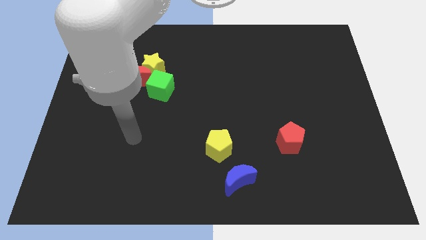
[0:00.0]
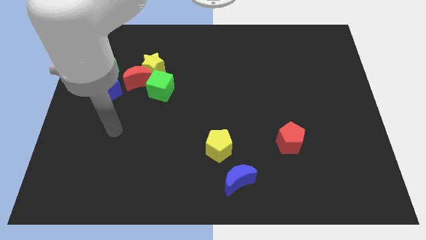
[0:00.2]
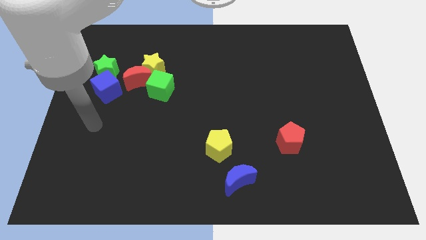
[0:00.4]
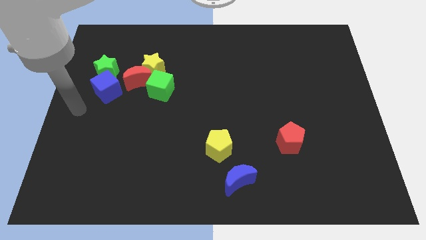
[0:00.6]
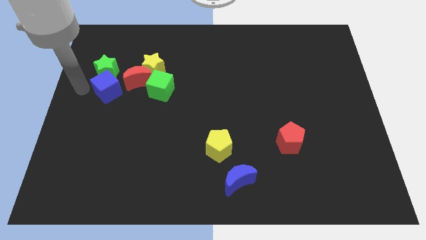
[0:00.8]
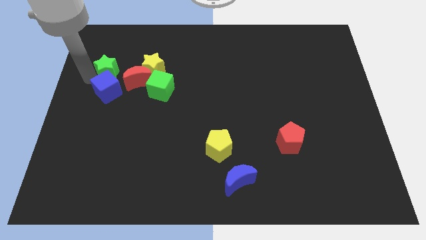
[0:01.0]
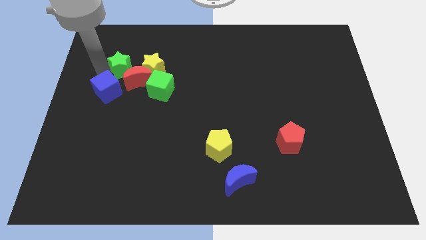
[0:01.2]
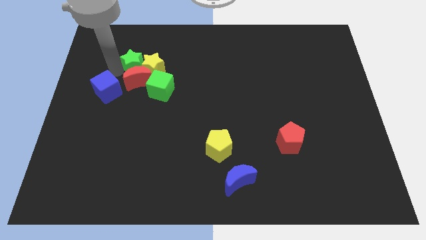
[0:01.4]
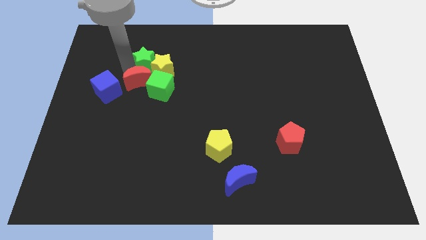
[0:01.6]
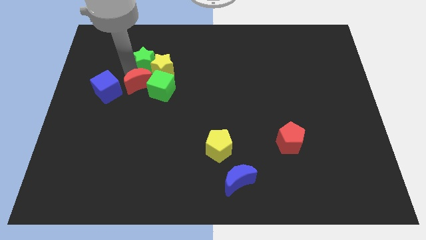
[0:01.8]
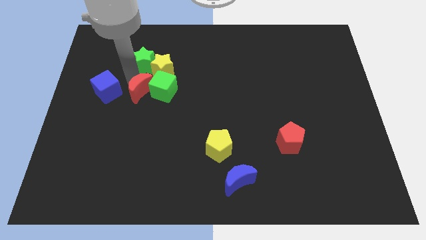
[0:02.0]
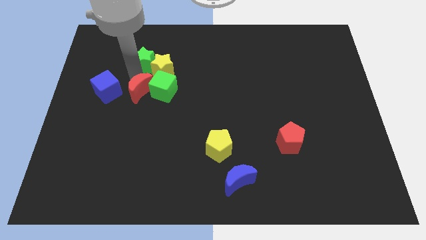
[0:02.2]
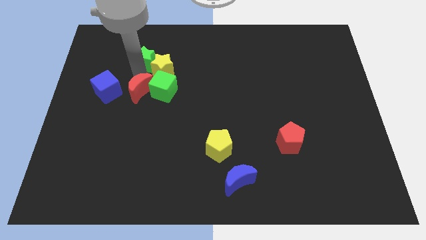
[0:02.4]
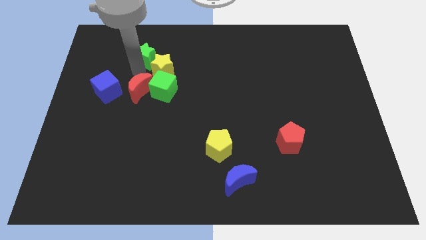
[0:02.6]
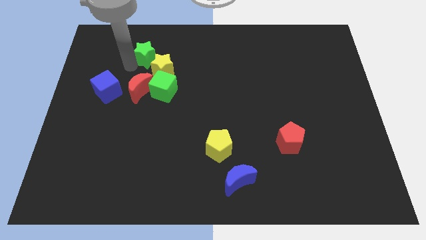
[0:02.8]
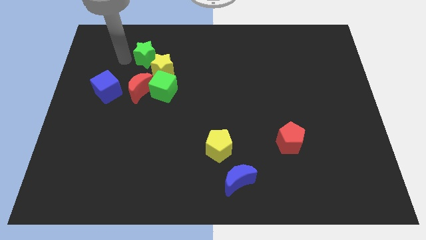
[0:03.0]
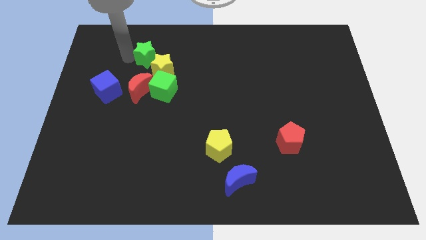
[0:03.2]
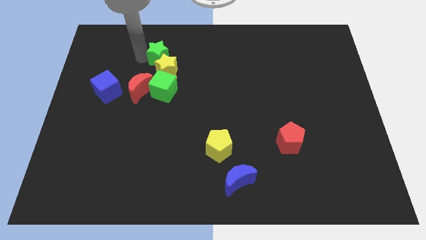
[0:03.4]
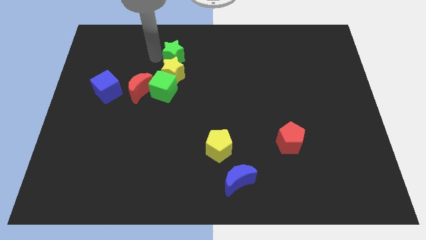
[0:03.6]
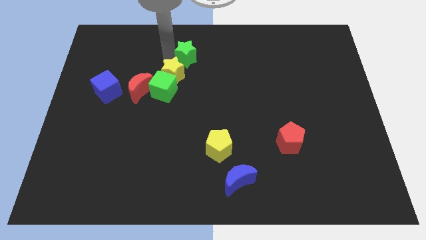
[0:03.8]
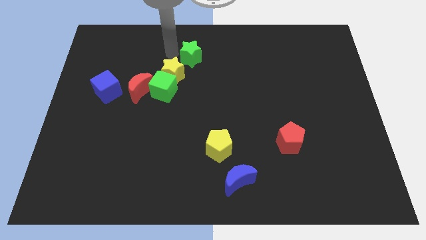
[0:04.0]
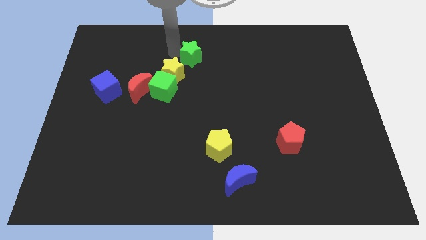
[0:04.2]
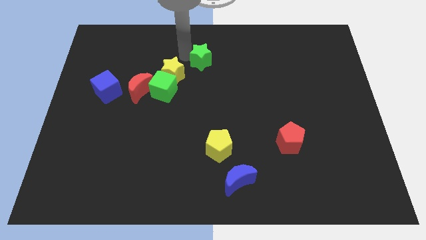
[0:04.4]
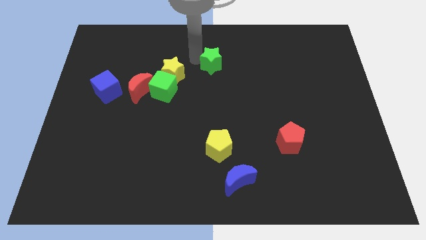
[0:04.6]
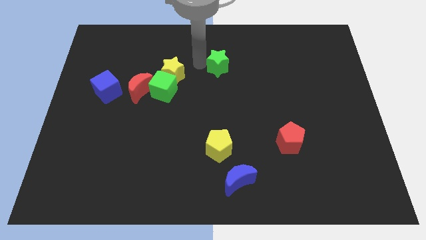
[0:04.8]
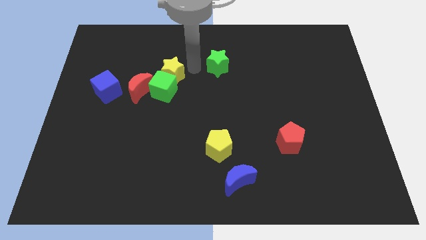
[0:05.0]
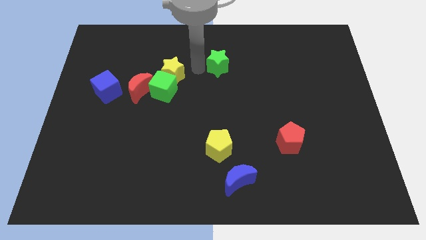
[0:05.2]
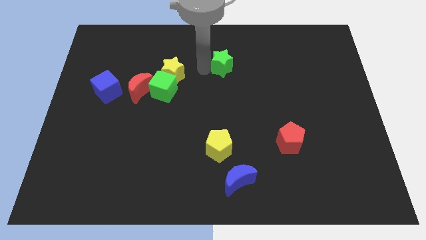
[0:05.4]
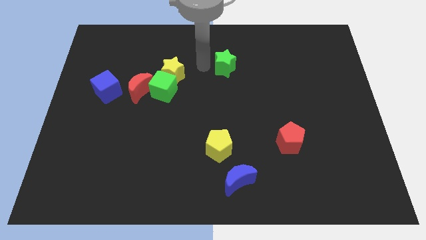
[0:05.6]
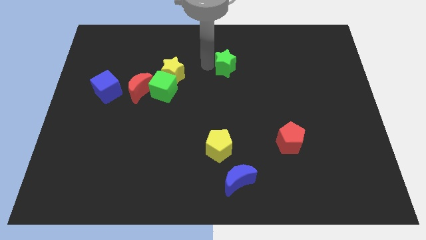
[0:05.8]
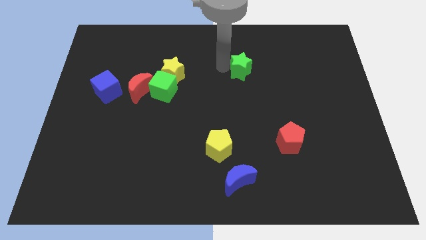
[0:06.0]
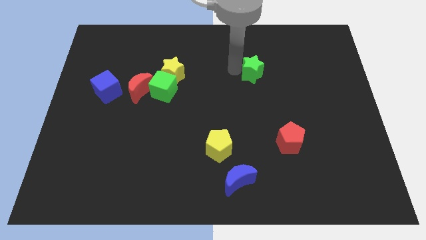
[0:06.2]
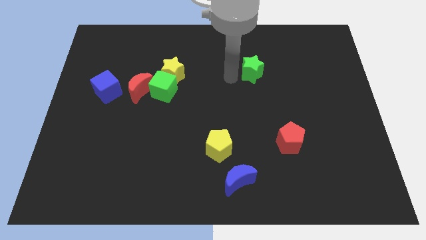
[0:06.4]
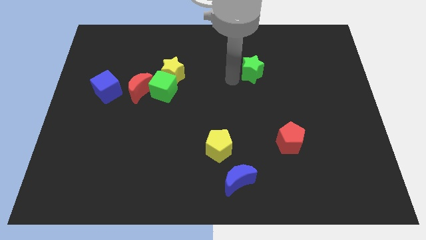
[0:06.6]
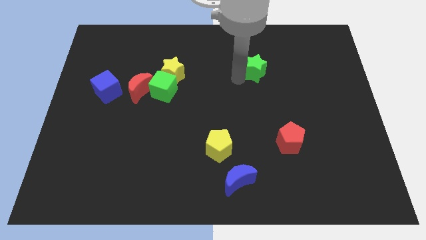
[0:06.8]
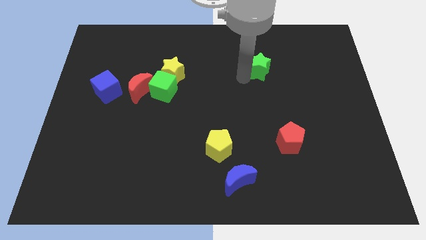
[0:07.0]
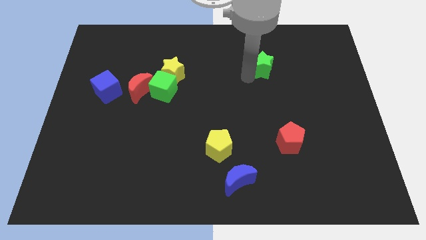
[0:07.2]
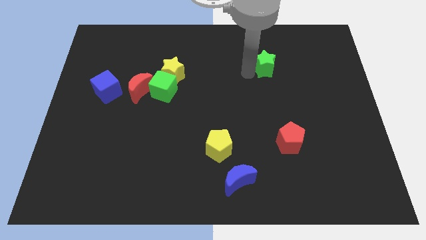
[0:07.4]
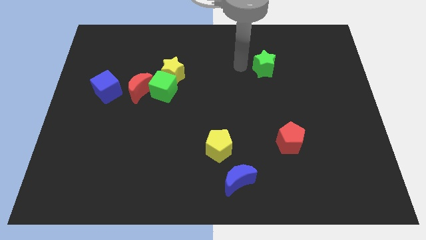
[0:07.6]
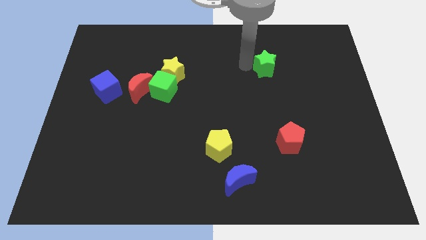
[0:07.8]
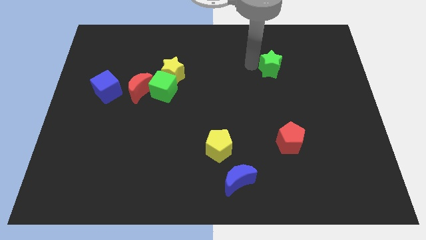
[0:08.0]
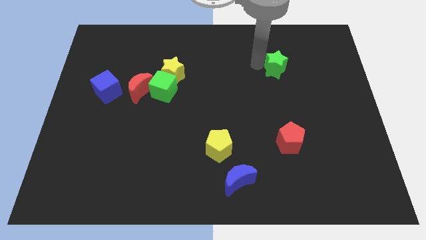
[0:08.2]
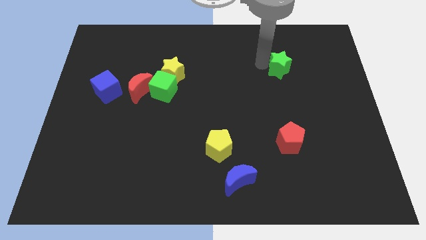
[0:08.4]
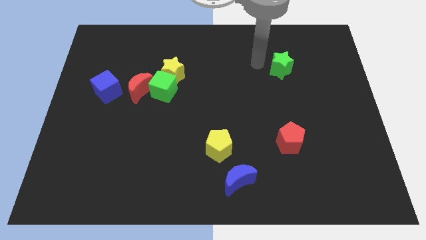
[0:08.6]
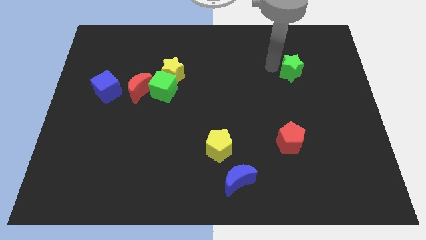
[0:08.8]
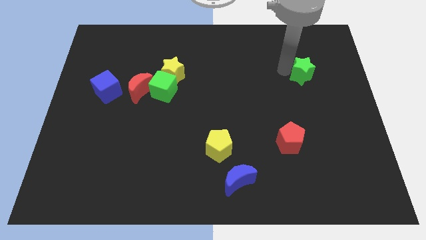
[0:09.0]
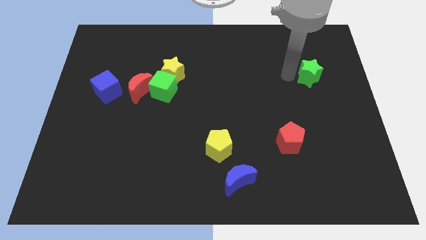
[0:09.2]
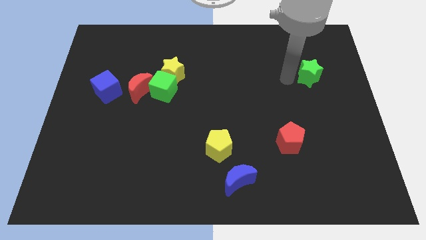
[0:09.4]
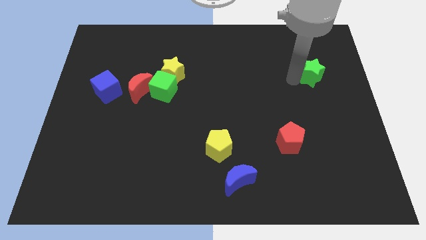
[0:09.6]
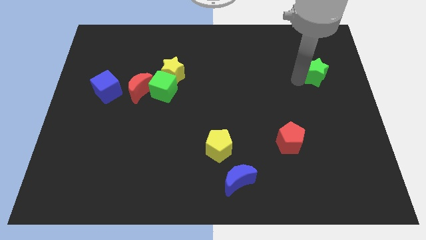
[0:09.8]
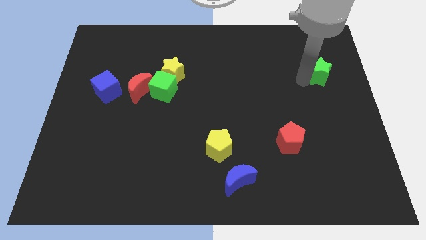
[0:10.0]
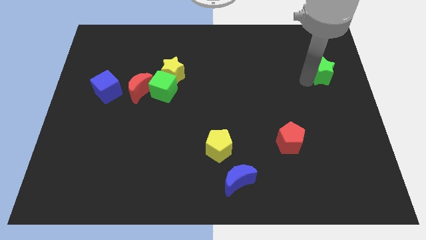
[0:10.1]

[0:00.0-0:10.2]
push the green star to the right side of the board

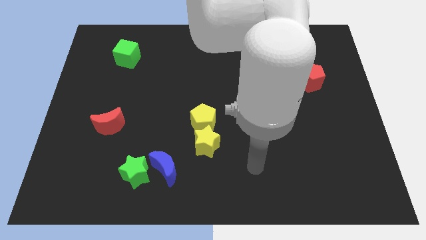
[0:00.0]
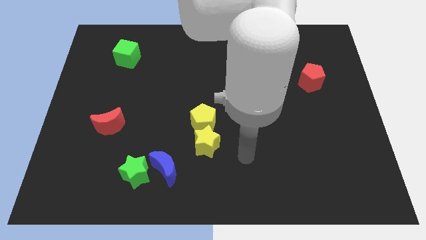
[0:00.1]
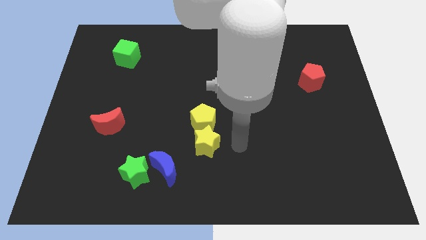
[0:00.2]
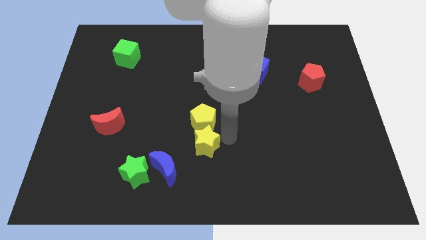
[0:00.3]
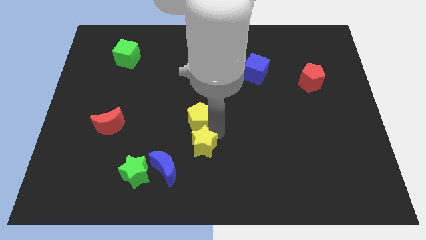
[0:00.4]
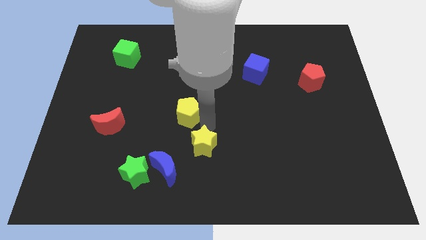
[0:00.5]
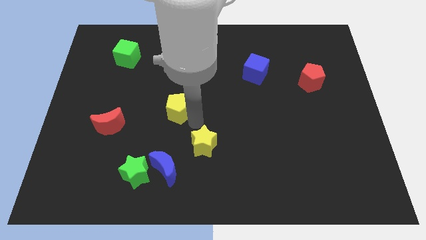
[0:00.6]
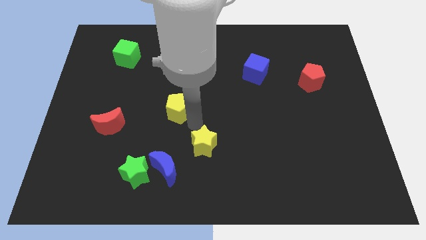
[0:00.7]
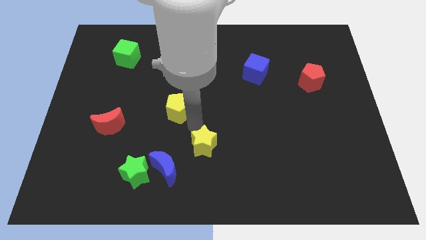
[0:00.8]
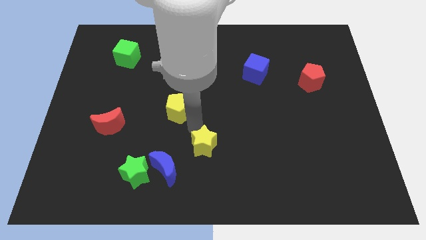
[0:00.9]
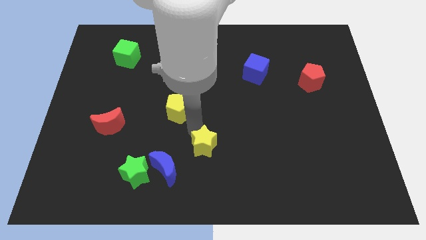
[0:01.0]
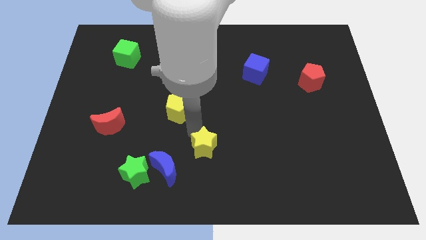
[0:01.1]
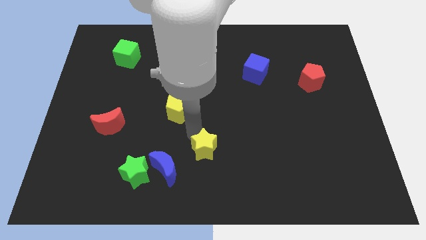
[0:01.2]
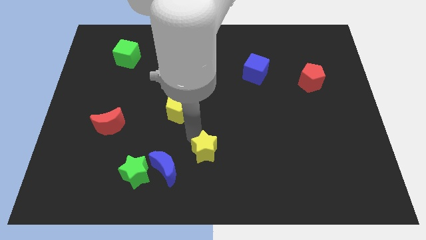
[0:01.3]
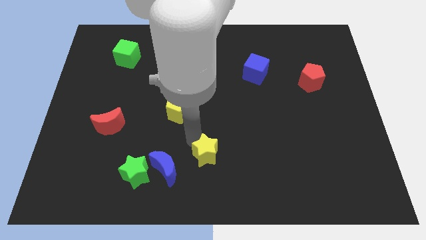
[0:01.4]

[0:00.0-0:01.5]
move the yellow star to the bottom side
